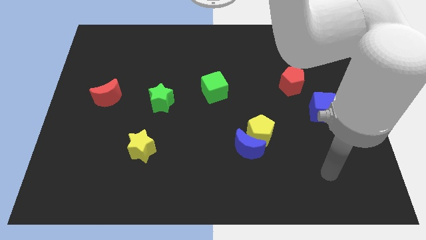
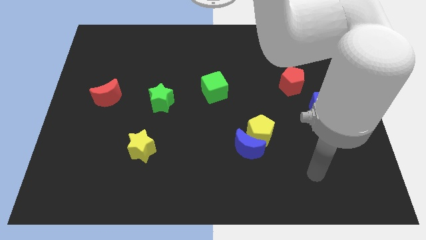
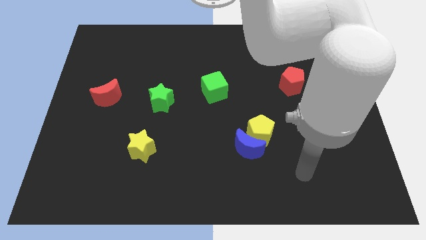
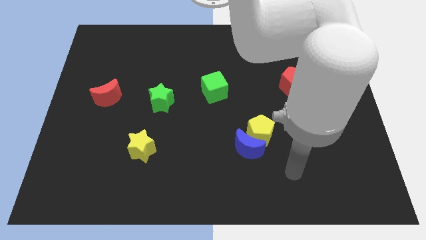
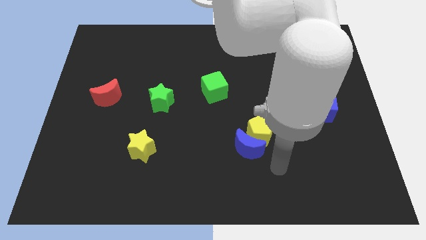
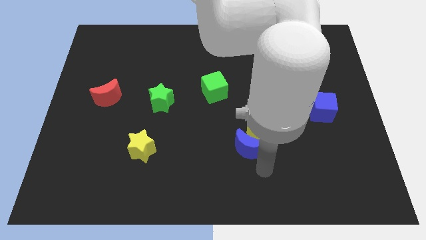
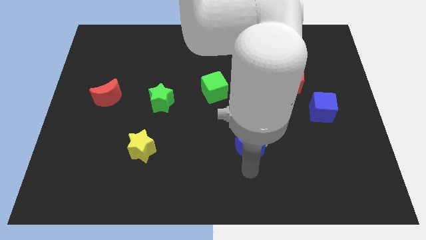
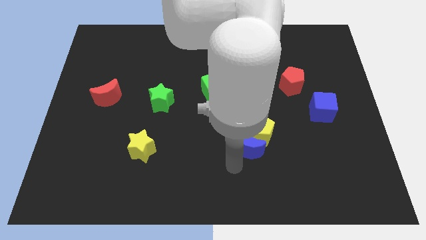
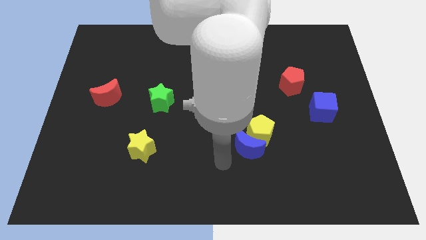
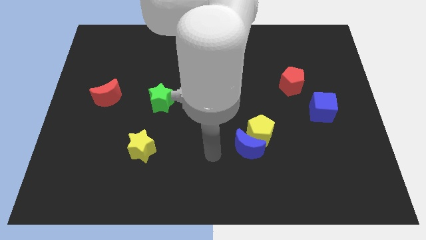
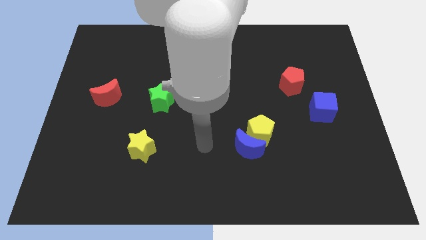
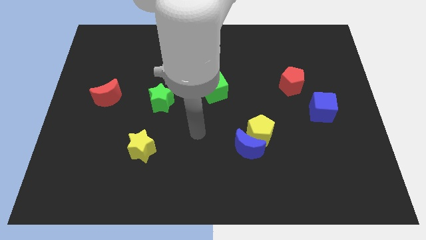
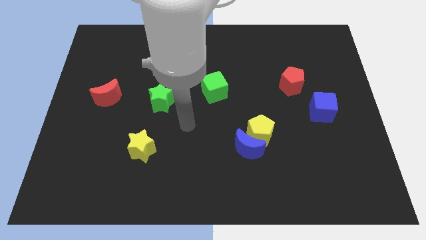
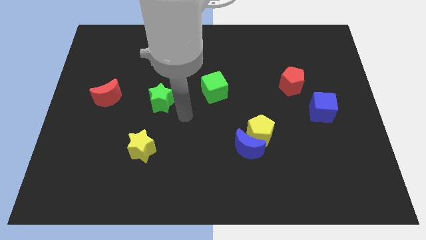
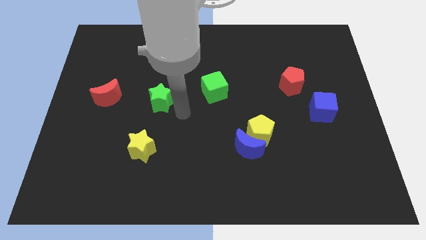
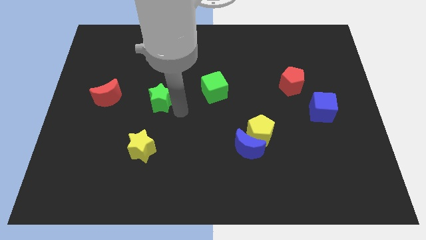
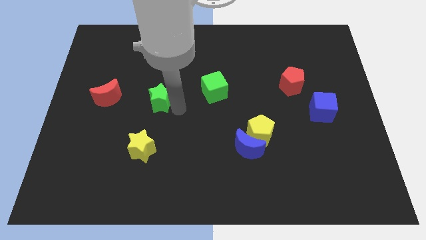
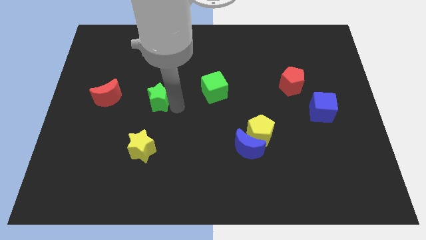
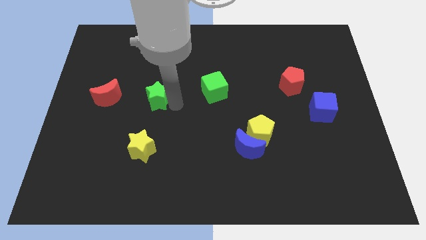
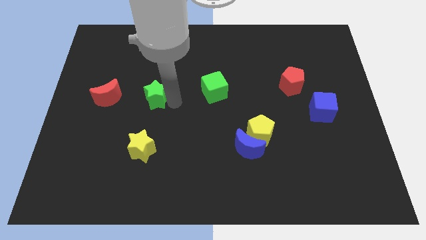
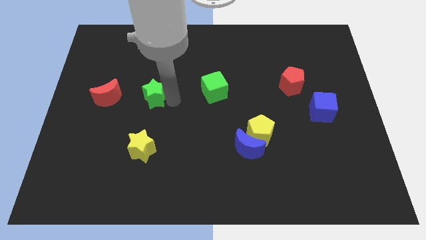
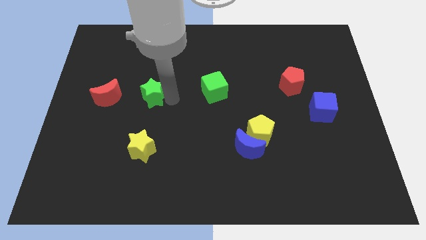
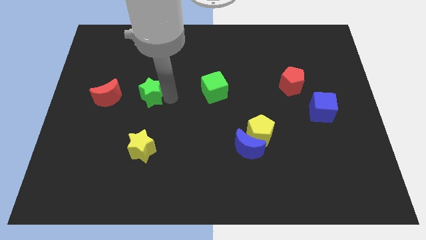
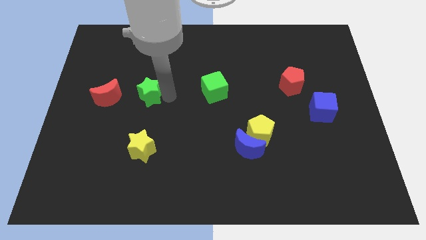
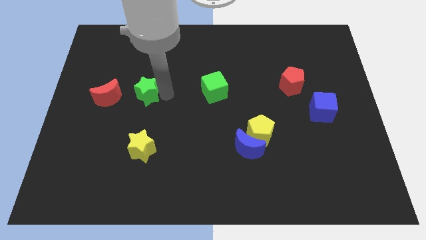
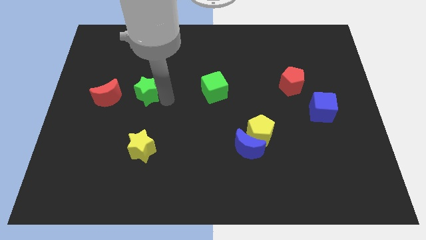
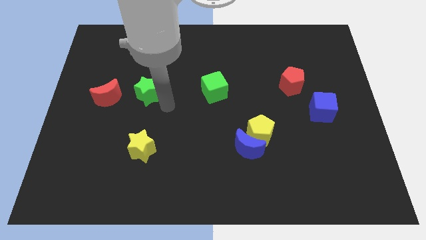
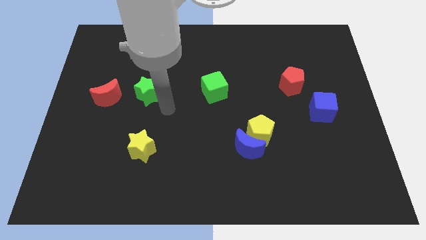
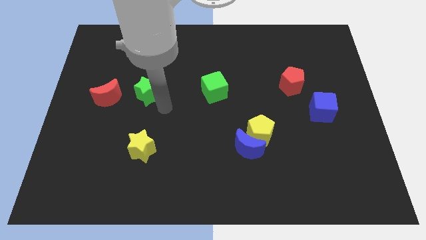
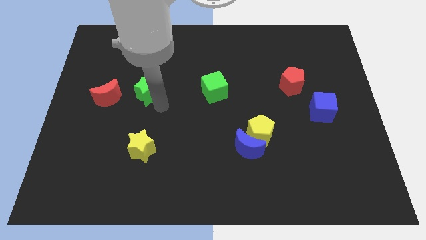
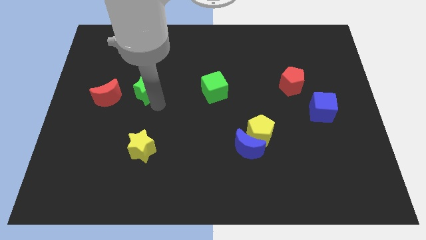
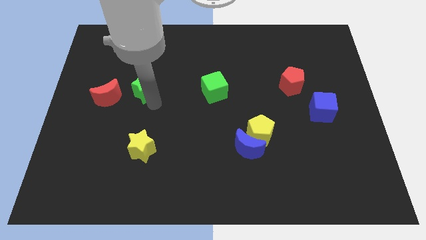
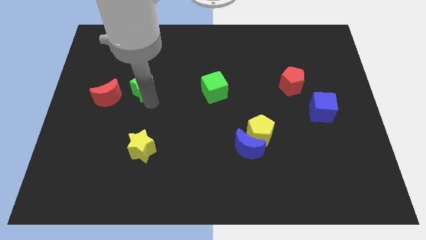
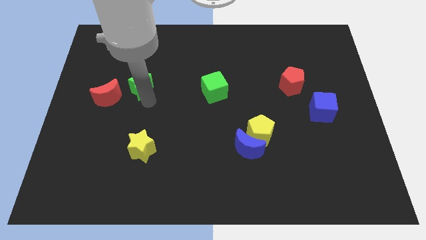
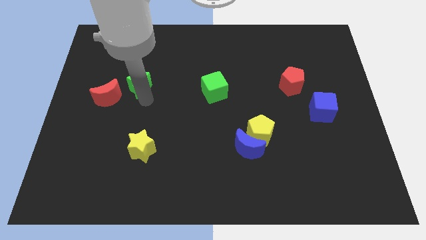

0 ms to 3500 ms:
slide the green star a little bit upwards and to the left diagonally

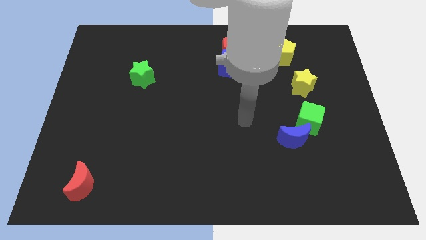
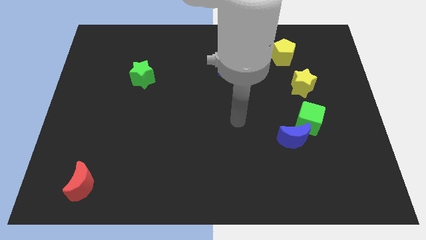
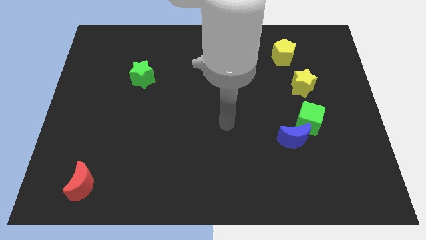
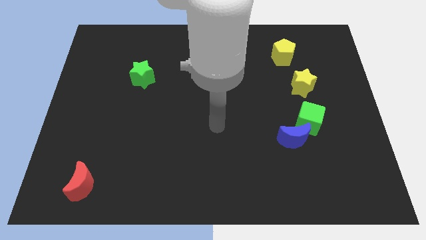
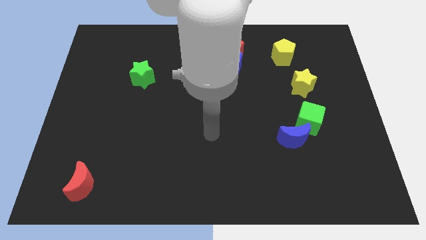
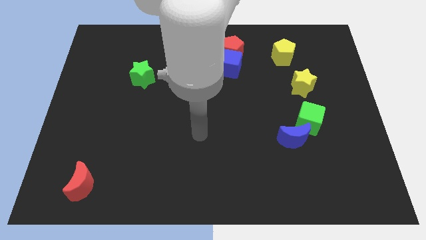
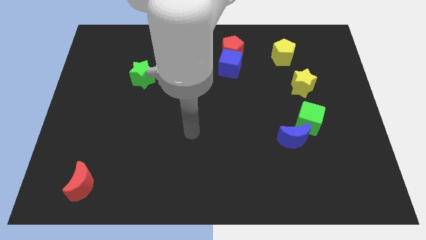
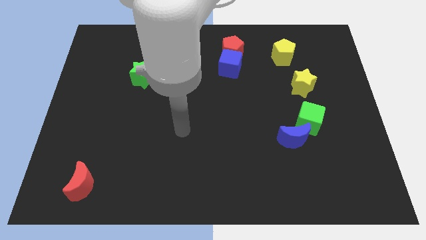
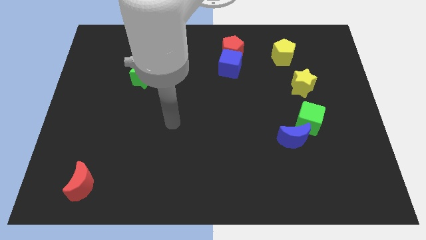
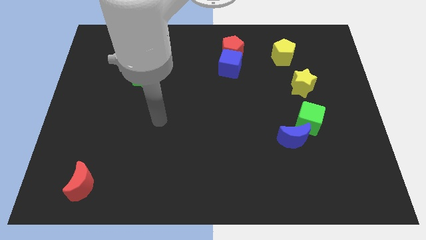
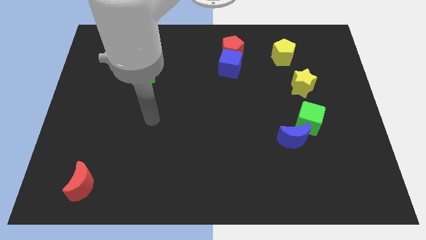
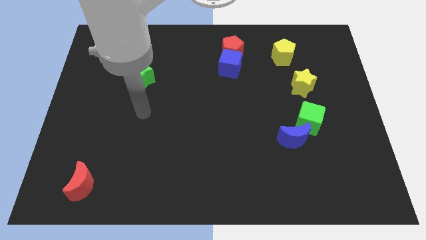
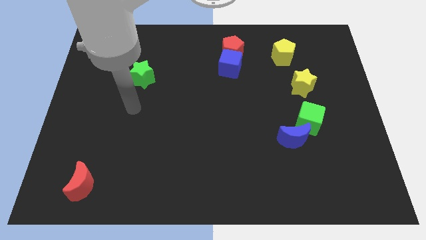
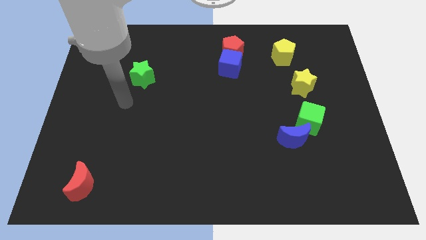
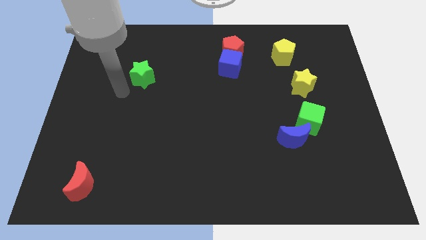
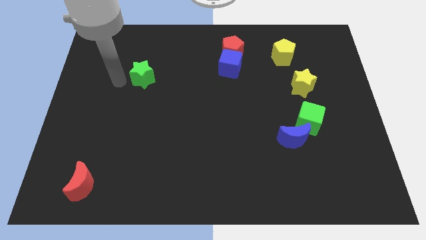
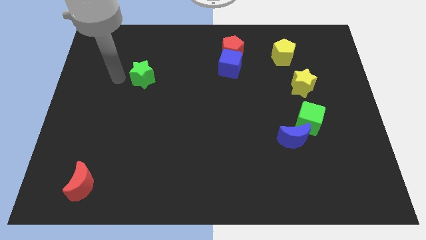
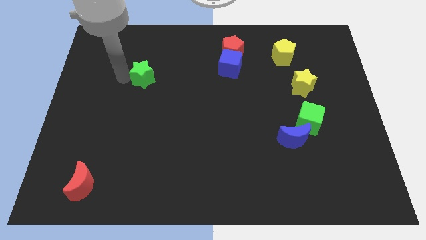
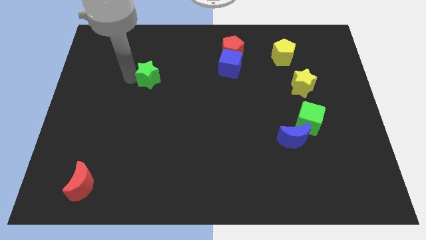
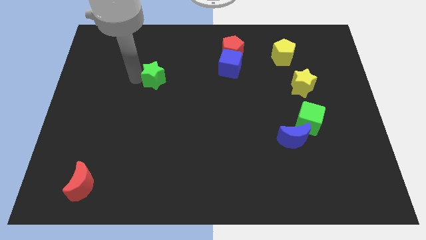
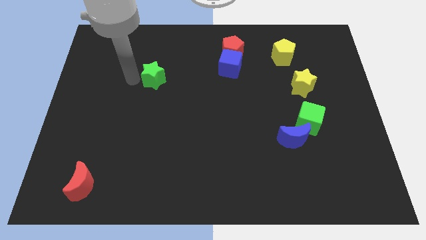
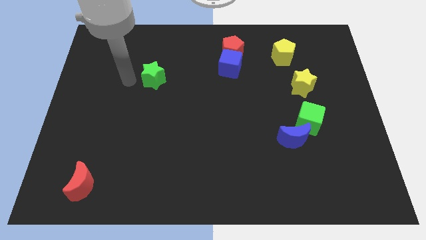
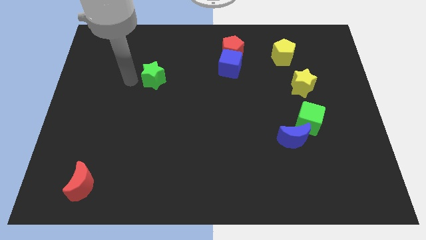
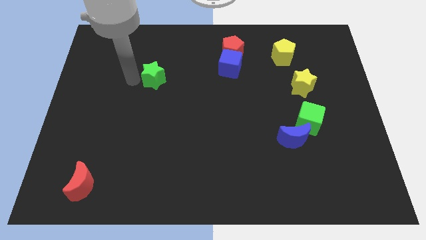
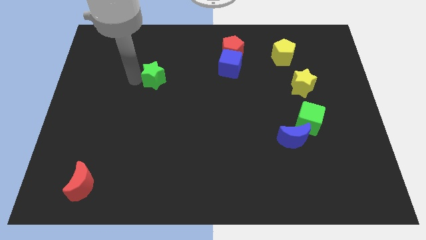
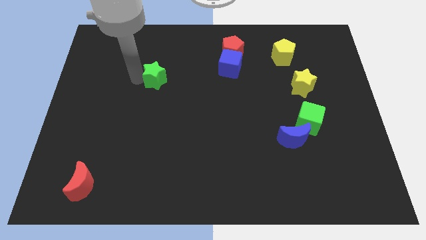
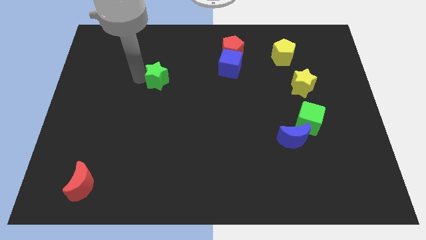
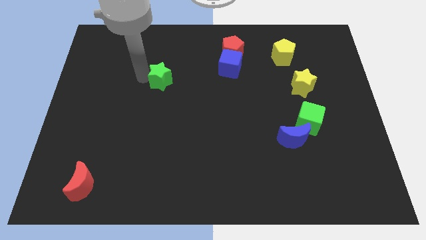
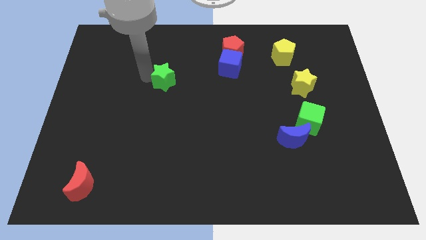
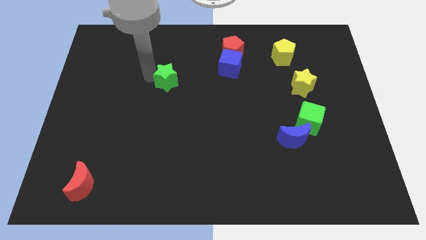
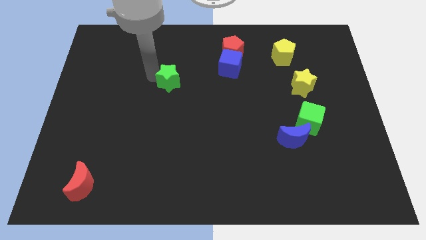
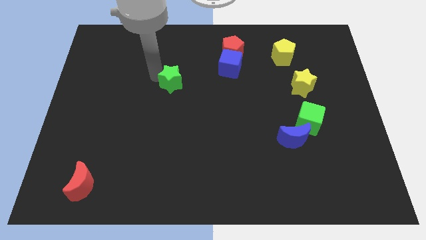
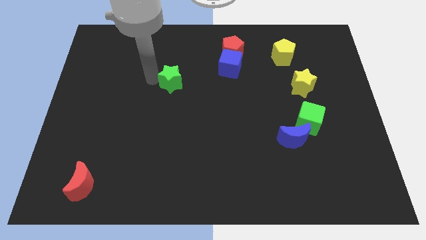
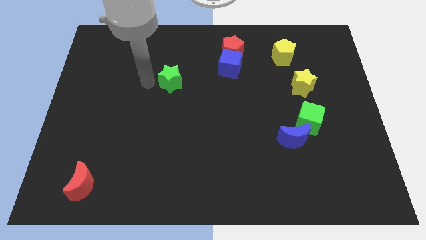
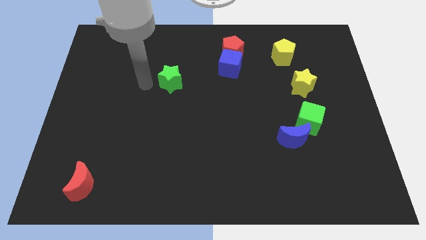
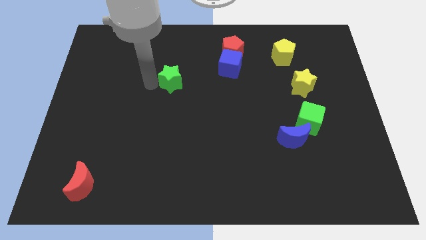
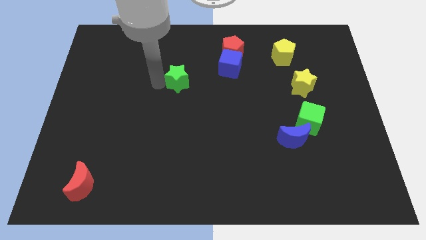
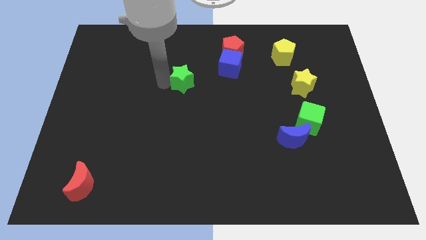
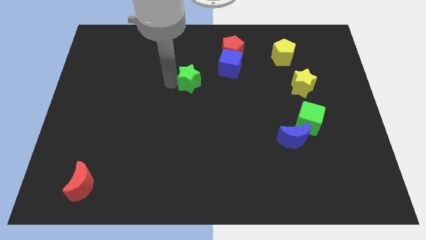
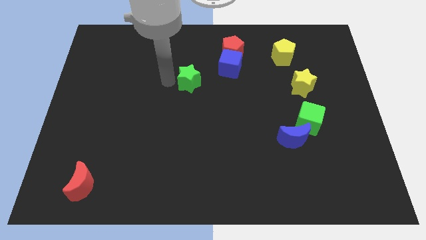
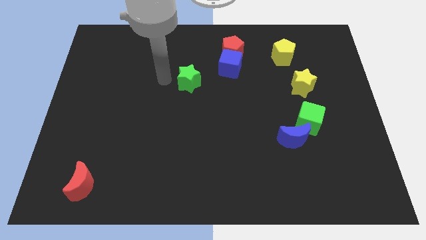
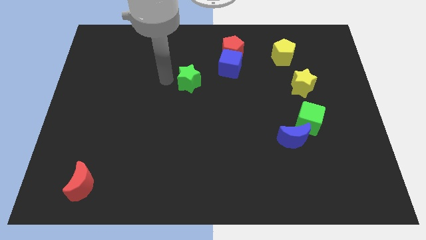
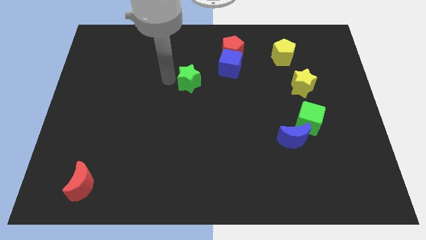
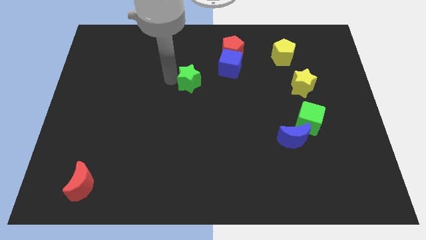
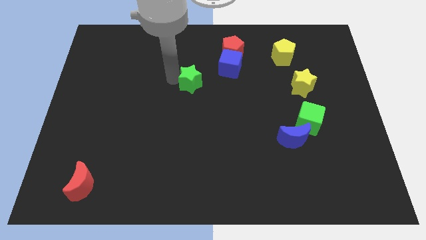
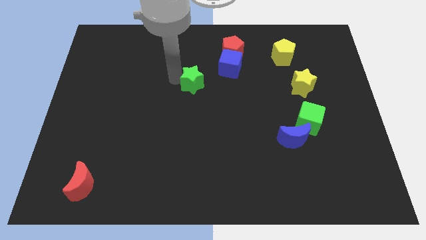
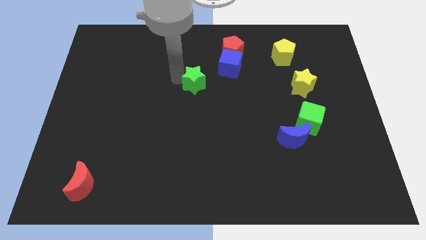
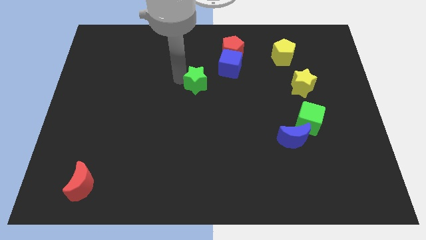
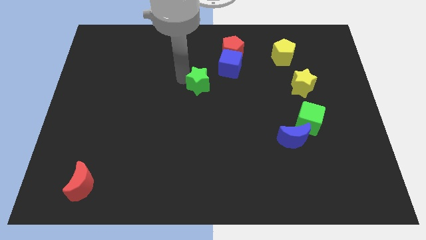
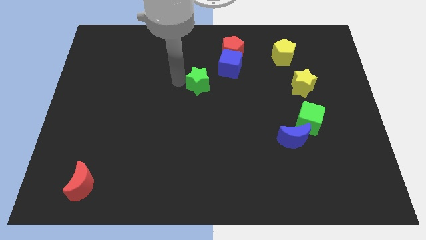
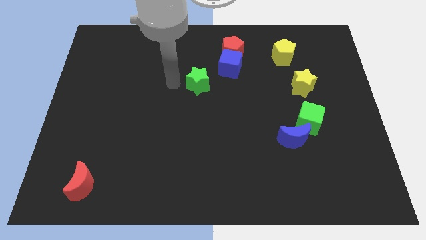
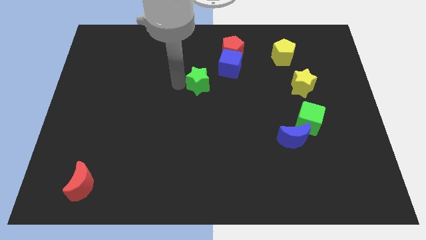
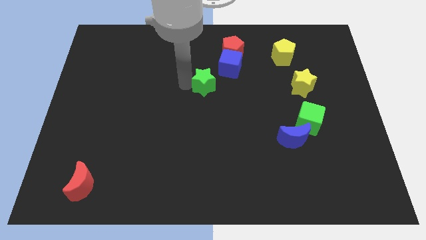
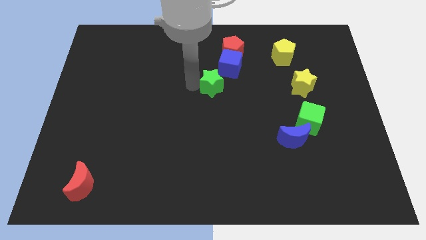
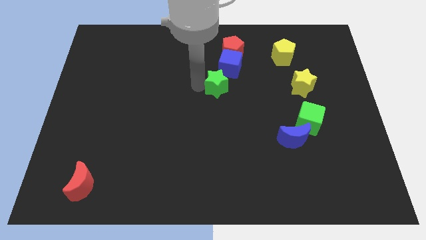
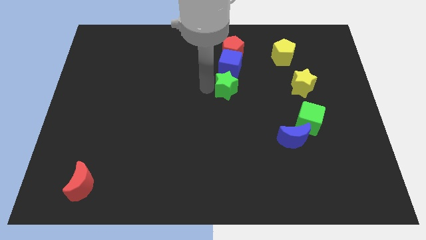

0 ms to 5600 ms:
move the green star right
